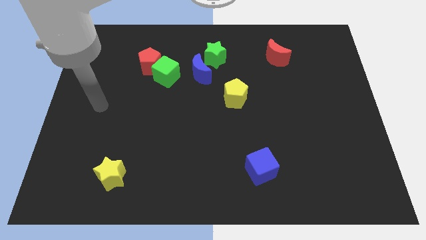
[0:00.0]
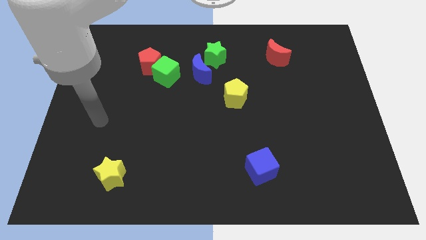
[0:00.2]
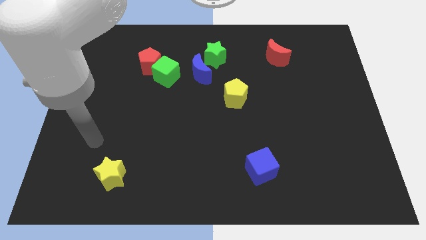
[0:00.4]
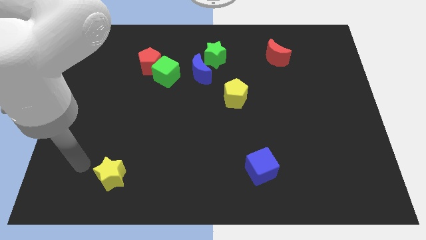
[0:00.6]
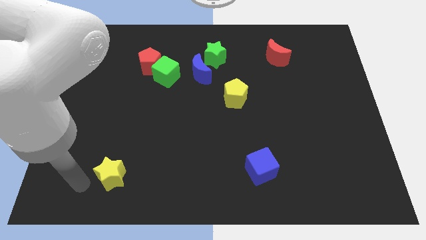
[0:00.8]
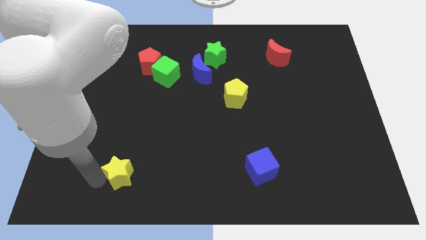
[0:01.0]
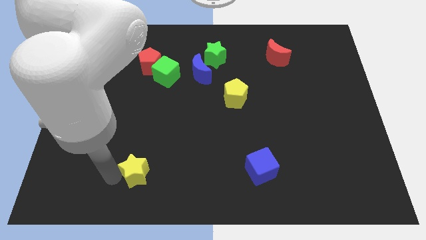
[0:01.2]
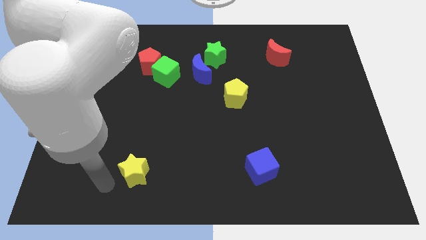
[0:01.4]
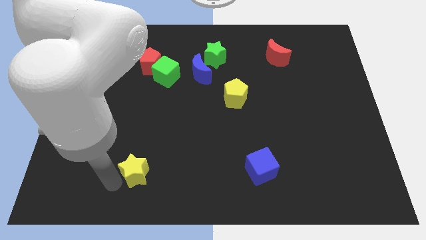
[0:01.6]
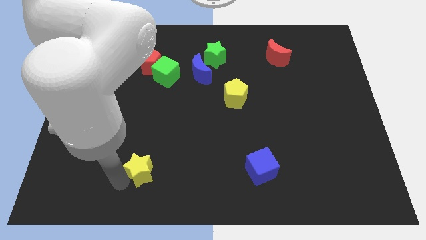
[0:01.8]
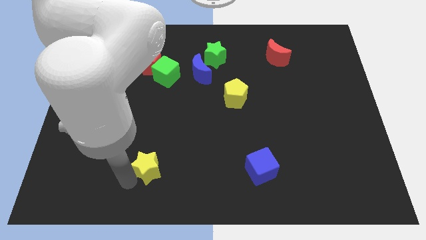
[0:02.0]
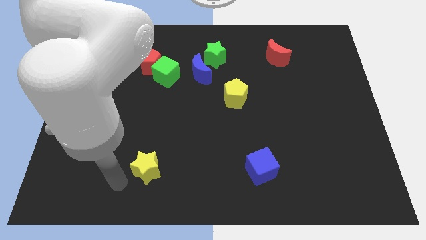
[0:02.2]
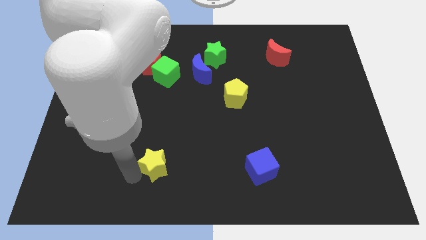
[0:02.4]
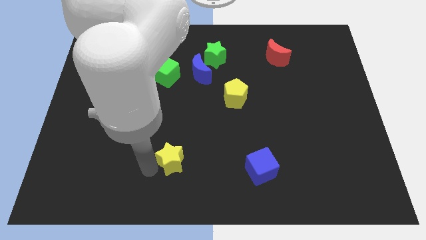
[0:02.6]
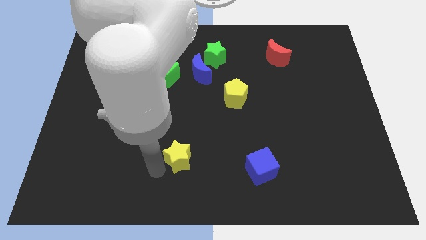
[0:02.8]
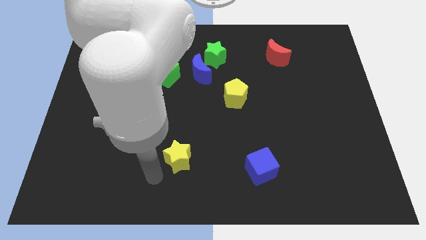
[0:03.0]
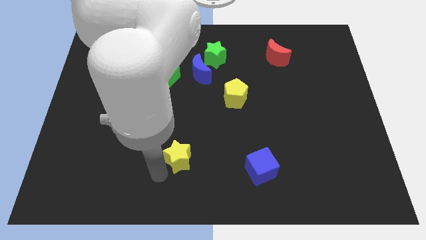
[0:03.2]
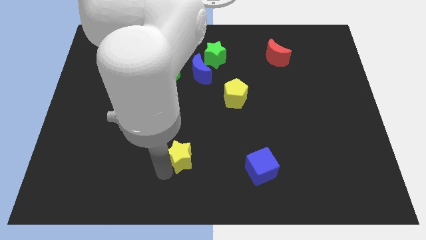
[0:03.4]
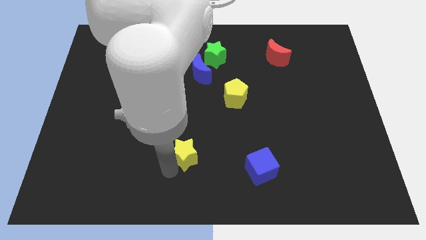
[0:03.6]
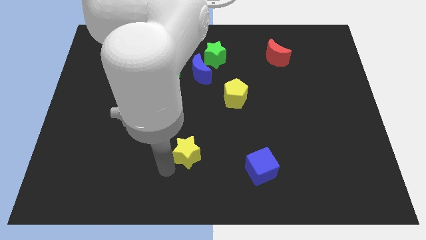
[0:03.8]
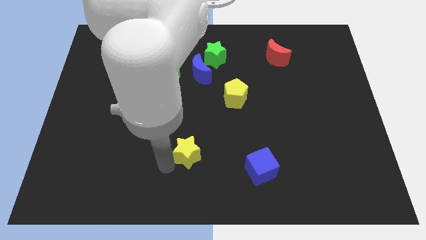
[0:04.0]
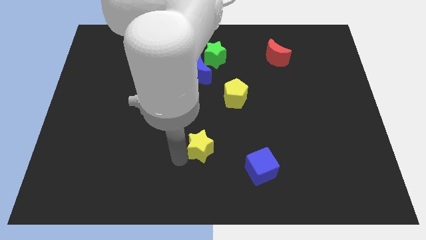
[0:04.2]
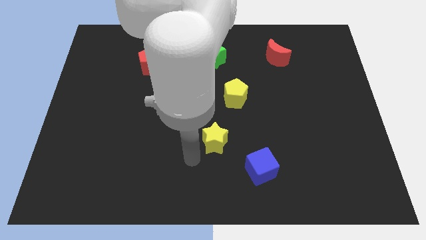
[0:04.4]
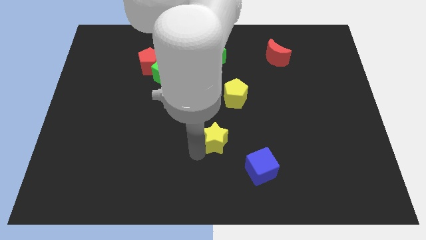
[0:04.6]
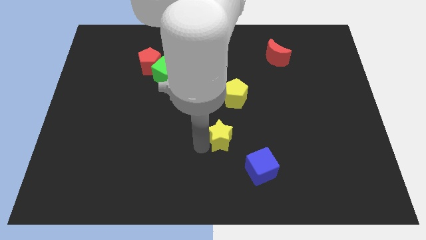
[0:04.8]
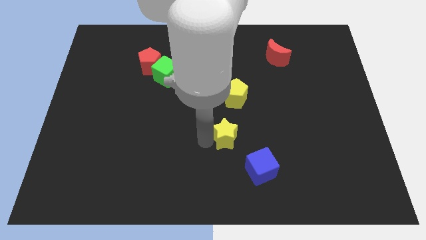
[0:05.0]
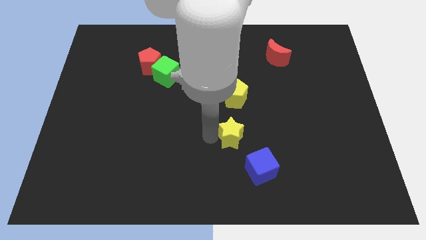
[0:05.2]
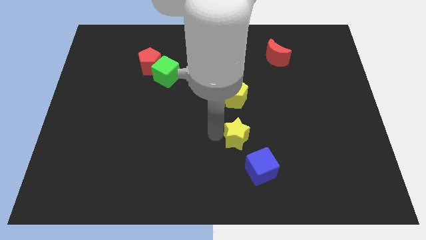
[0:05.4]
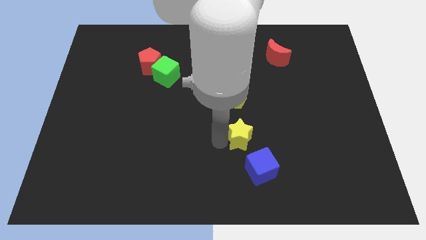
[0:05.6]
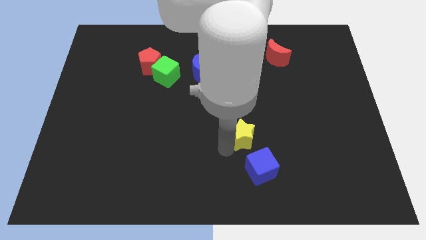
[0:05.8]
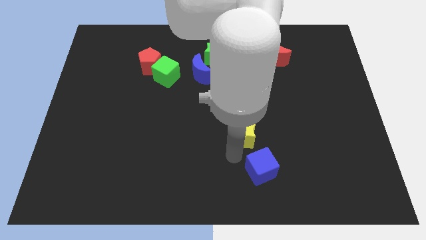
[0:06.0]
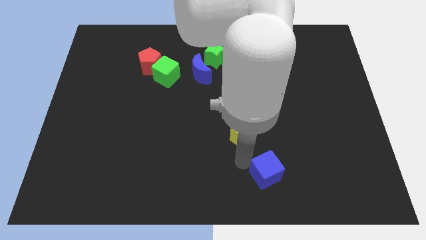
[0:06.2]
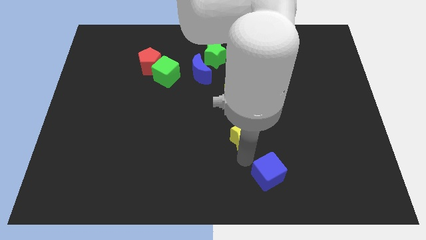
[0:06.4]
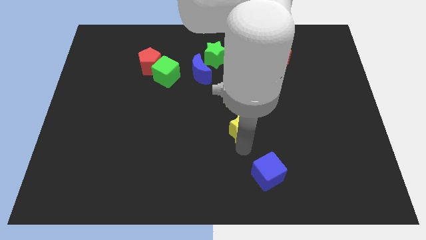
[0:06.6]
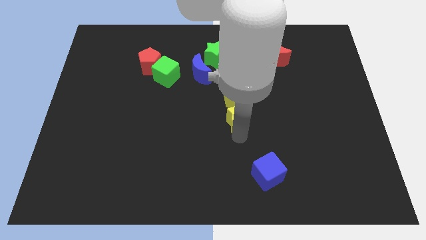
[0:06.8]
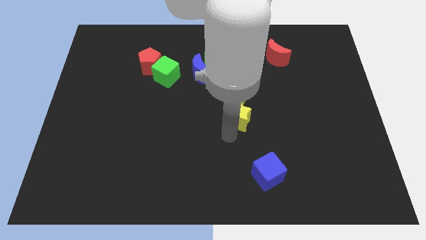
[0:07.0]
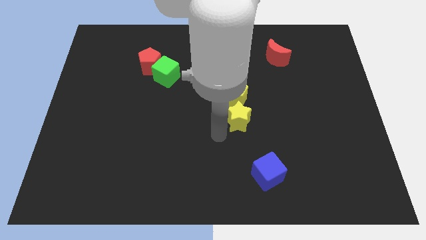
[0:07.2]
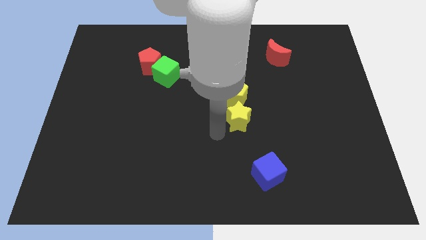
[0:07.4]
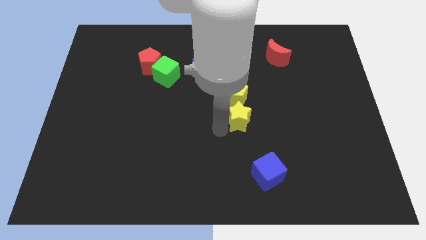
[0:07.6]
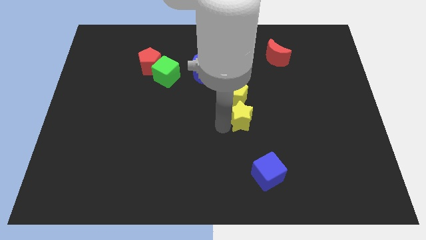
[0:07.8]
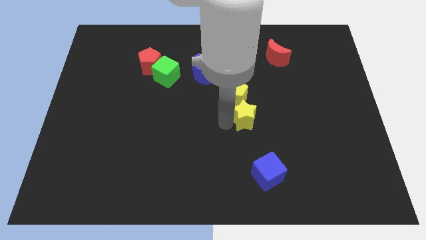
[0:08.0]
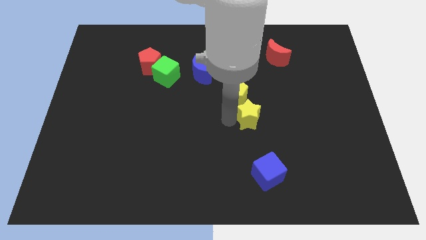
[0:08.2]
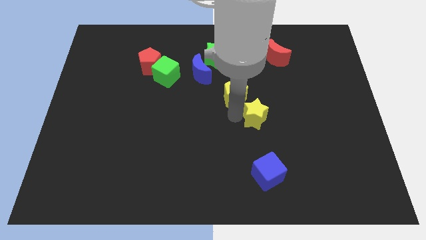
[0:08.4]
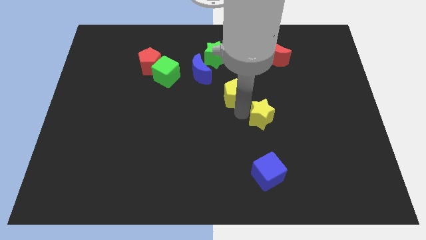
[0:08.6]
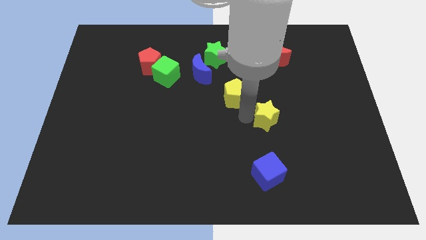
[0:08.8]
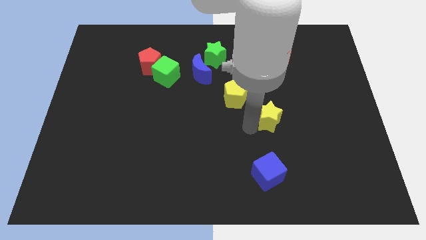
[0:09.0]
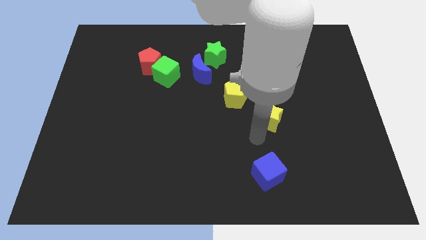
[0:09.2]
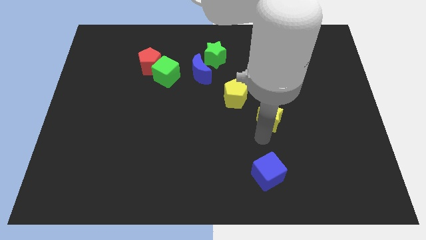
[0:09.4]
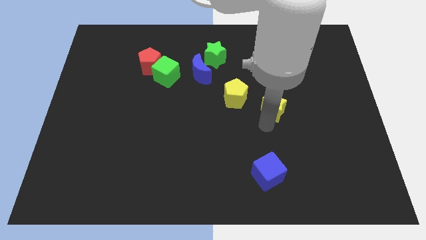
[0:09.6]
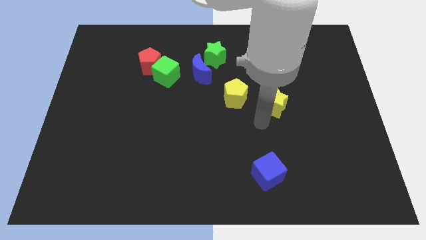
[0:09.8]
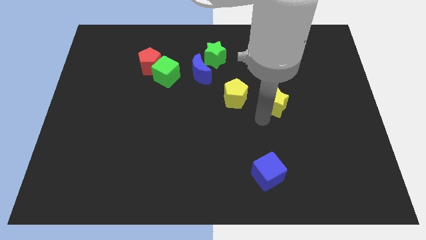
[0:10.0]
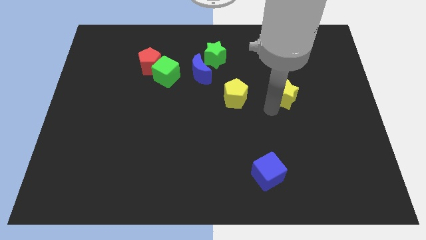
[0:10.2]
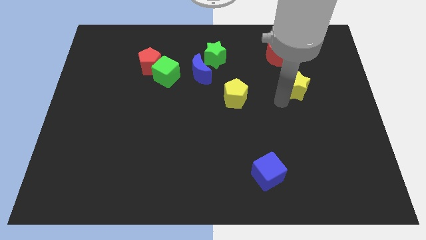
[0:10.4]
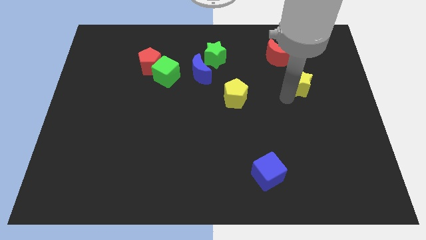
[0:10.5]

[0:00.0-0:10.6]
move the yellow star to the bottom right side of the red moon

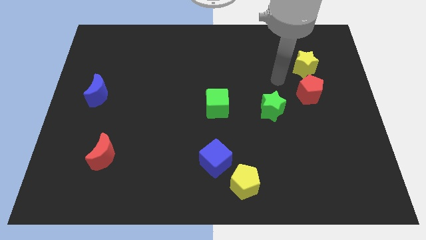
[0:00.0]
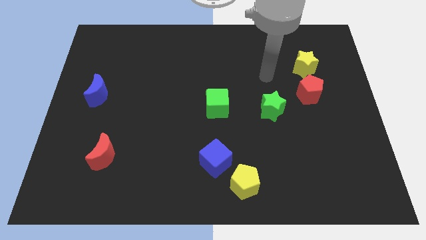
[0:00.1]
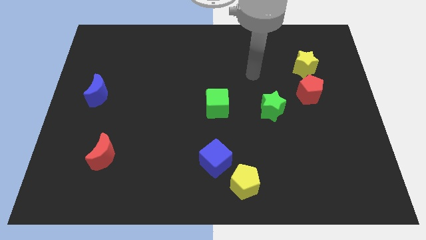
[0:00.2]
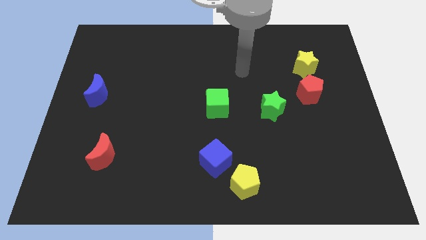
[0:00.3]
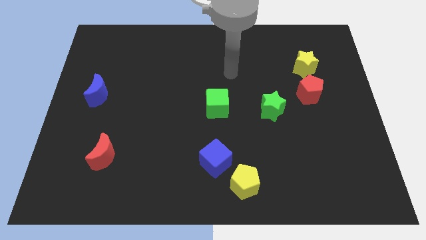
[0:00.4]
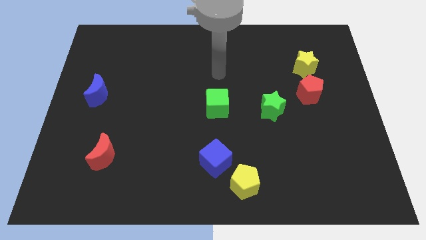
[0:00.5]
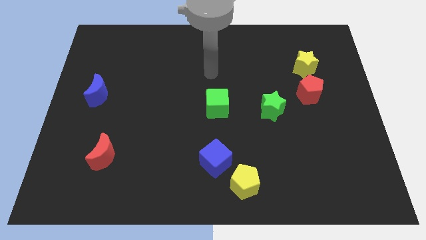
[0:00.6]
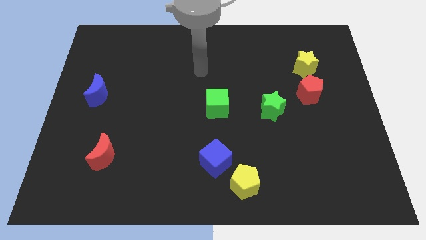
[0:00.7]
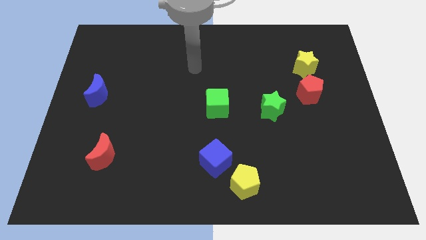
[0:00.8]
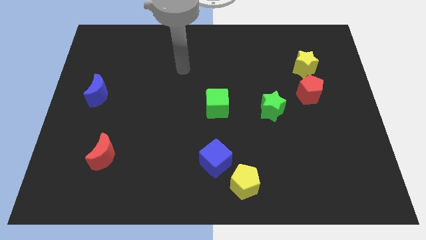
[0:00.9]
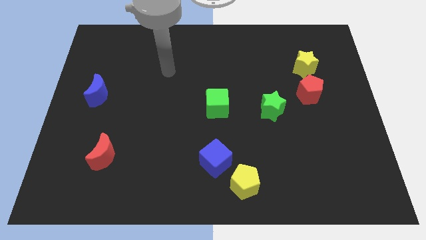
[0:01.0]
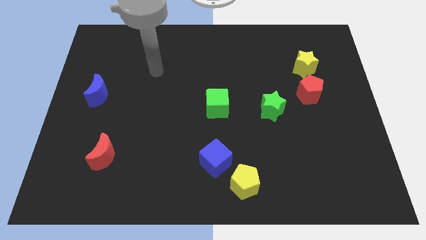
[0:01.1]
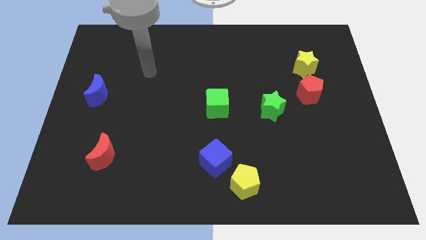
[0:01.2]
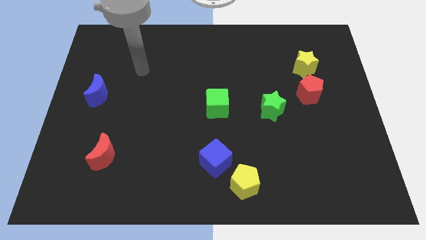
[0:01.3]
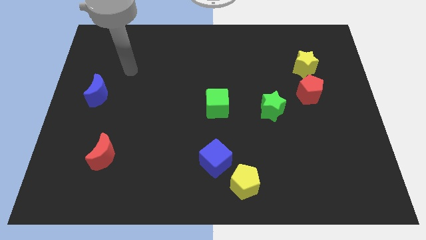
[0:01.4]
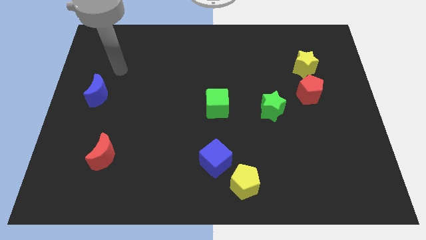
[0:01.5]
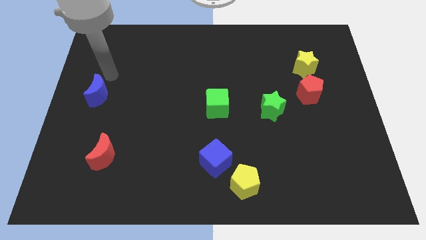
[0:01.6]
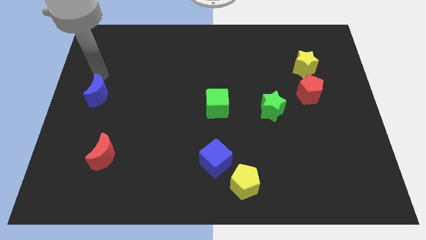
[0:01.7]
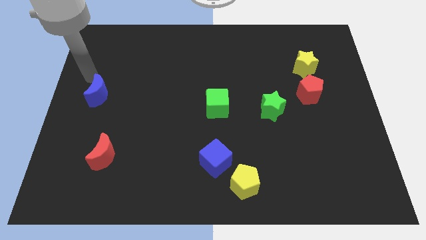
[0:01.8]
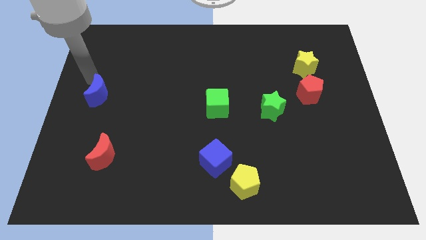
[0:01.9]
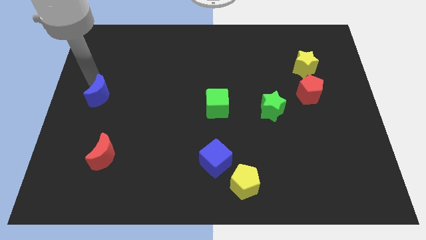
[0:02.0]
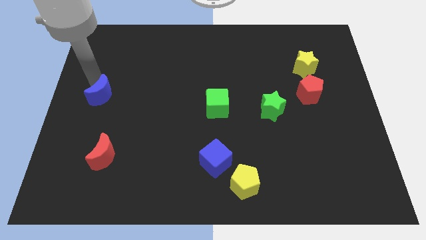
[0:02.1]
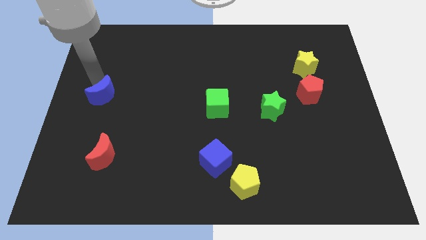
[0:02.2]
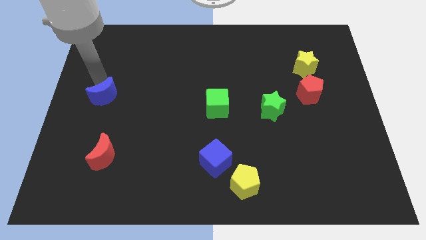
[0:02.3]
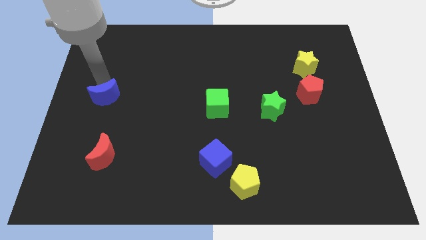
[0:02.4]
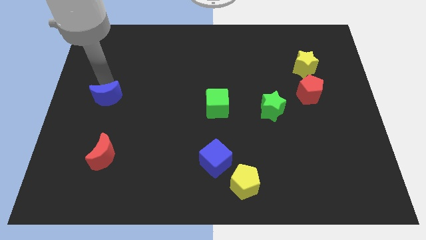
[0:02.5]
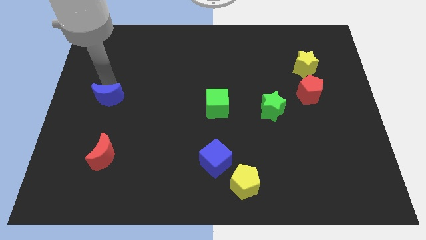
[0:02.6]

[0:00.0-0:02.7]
push the blue moon to the top of the red moon
